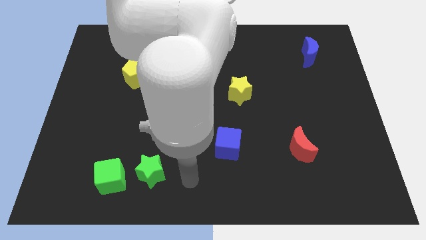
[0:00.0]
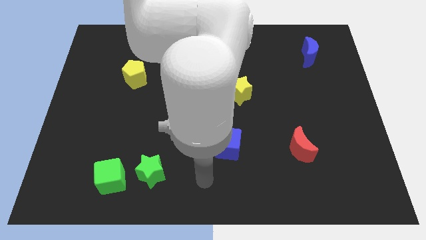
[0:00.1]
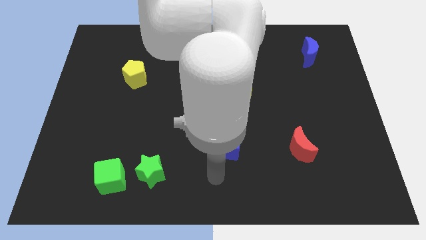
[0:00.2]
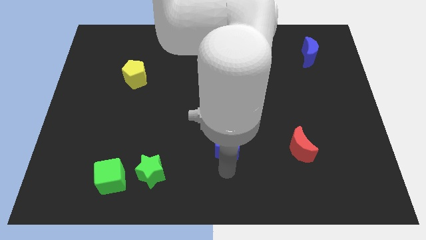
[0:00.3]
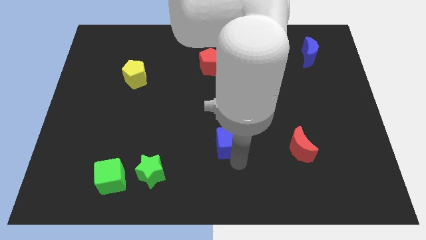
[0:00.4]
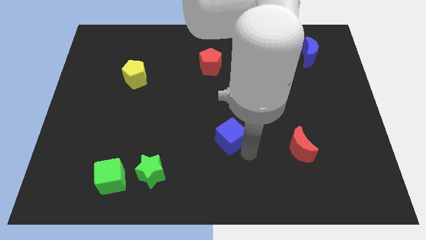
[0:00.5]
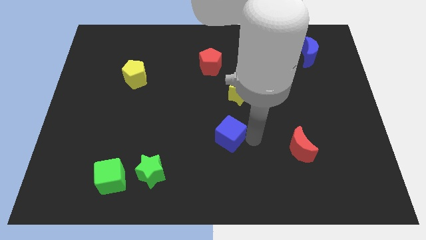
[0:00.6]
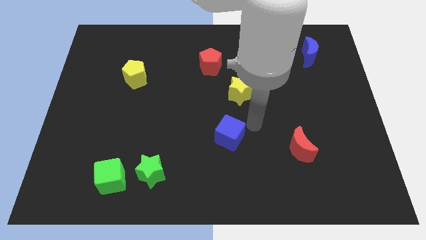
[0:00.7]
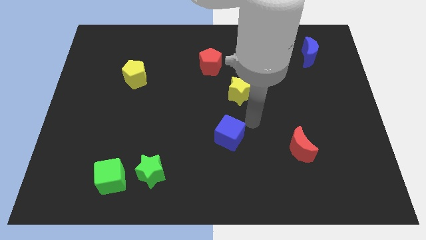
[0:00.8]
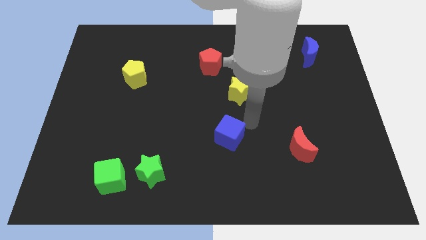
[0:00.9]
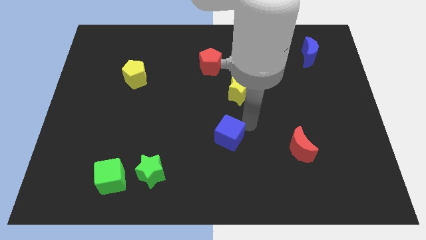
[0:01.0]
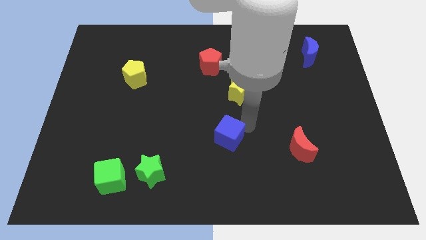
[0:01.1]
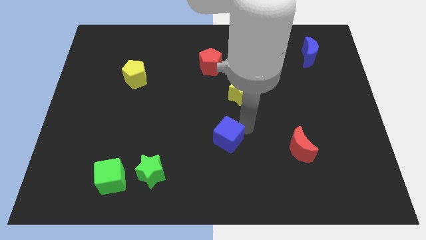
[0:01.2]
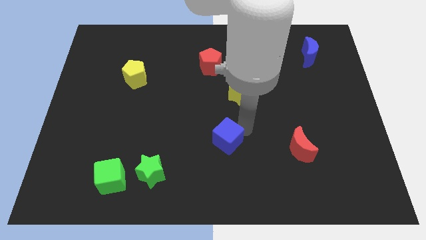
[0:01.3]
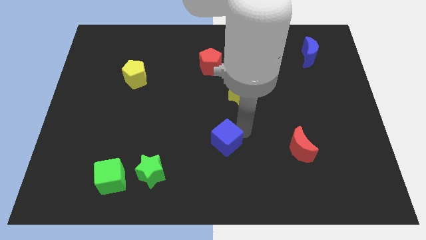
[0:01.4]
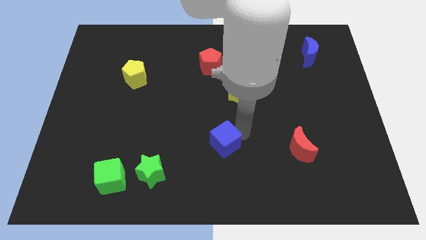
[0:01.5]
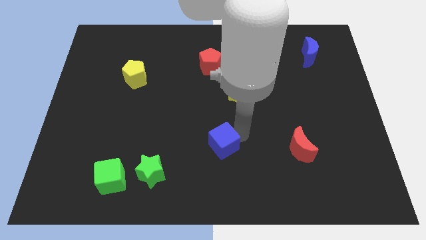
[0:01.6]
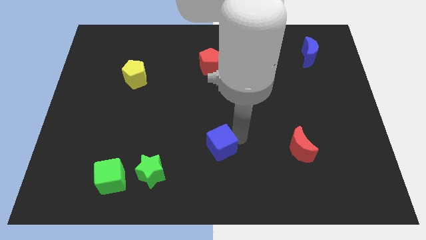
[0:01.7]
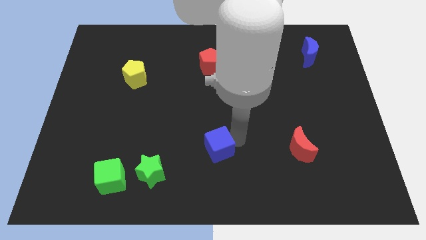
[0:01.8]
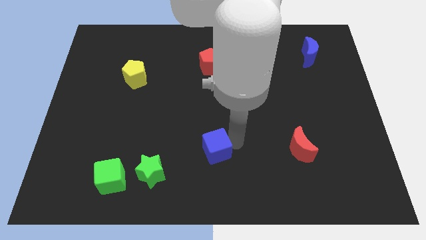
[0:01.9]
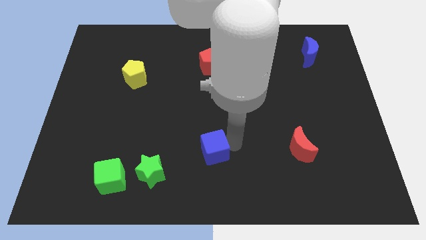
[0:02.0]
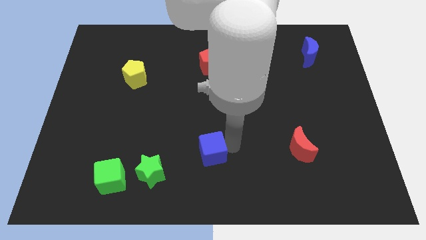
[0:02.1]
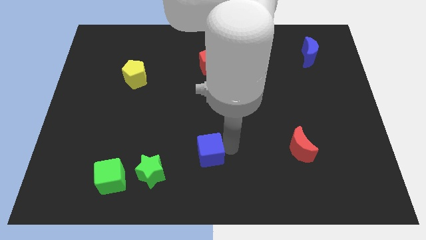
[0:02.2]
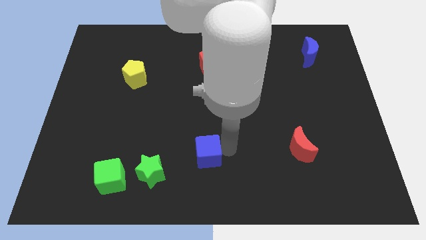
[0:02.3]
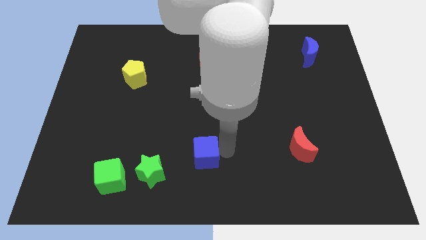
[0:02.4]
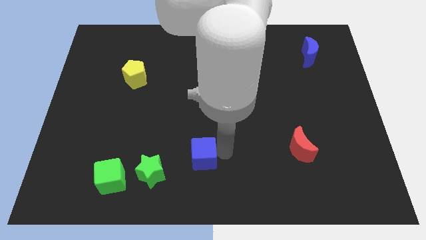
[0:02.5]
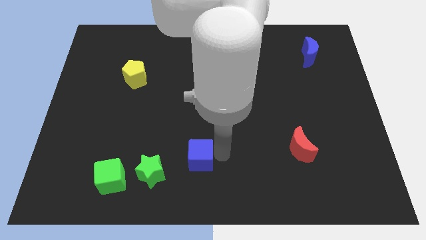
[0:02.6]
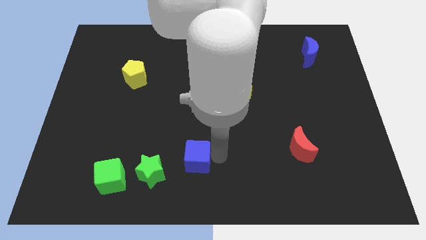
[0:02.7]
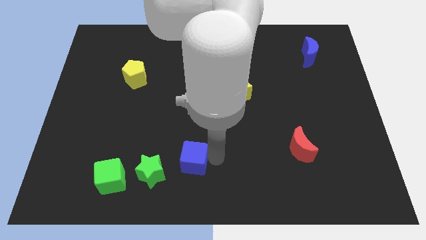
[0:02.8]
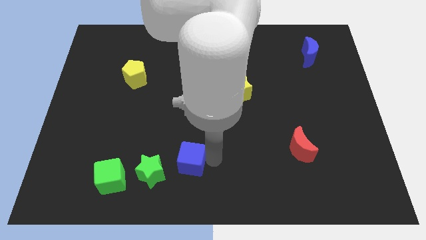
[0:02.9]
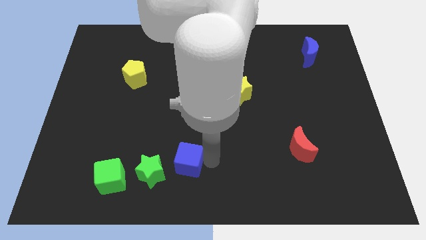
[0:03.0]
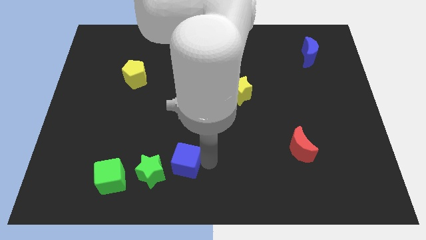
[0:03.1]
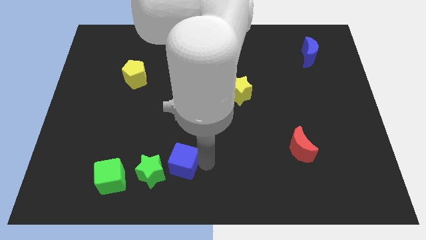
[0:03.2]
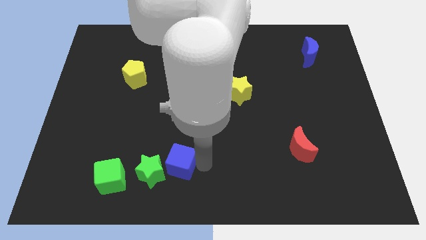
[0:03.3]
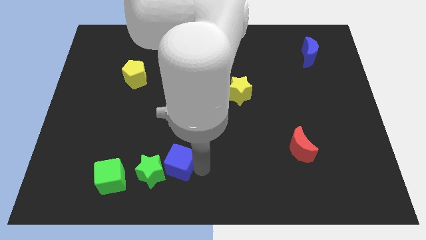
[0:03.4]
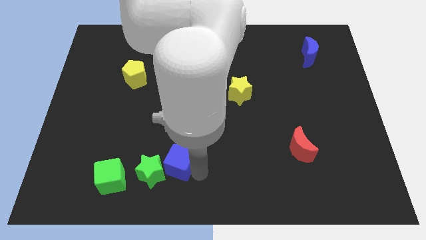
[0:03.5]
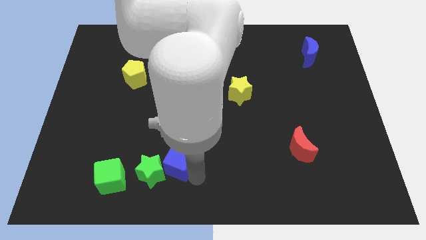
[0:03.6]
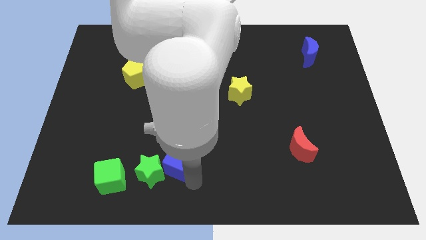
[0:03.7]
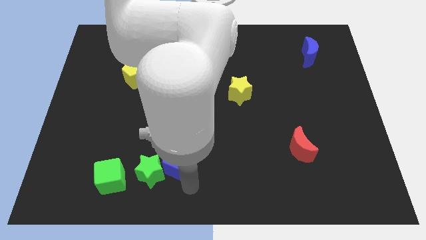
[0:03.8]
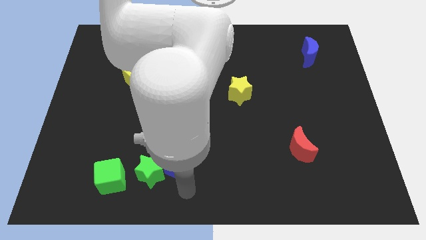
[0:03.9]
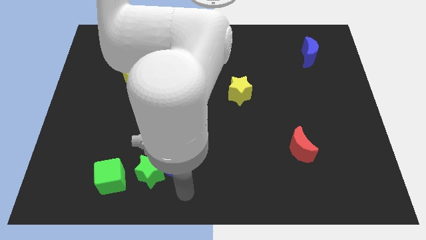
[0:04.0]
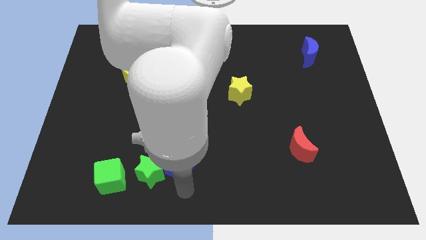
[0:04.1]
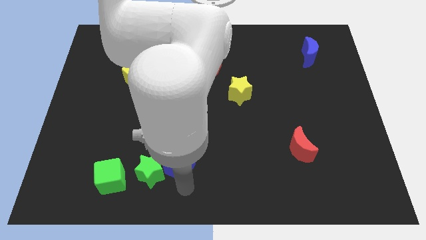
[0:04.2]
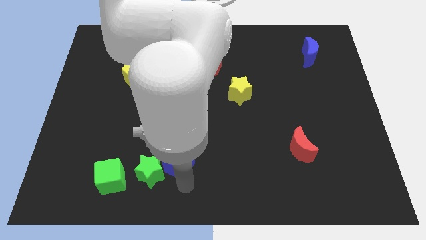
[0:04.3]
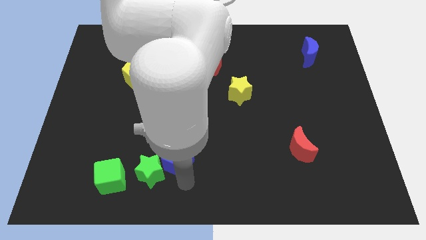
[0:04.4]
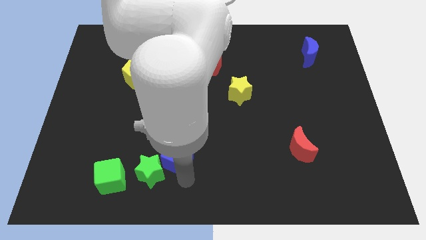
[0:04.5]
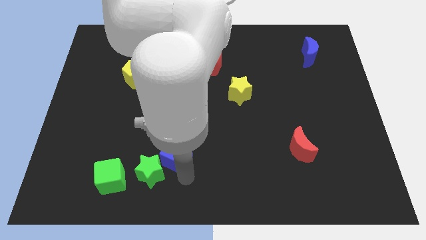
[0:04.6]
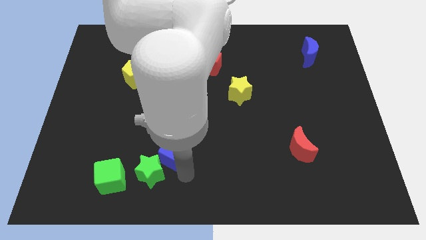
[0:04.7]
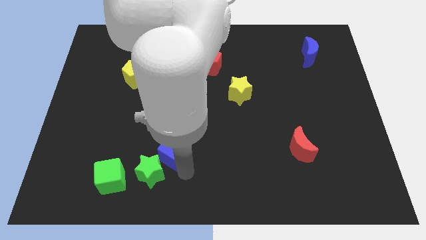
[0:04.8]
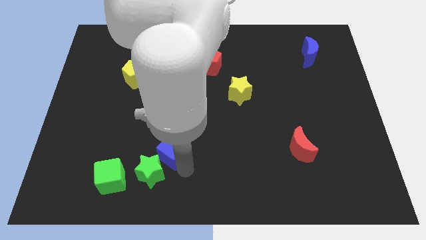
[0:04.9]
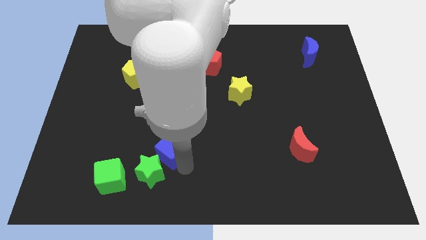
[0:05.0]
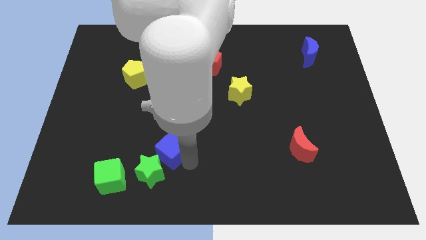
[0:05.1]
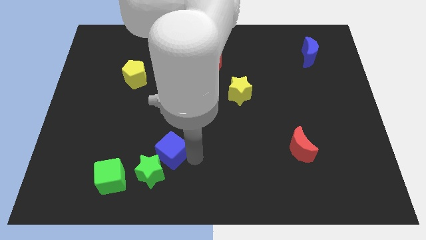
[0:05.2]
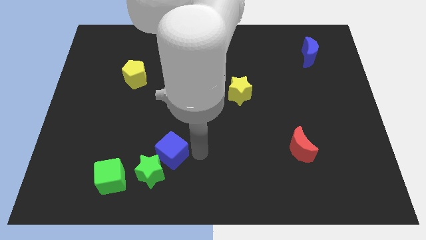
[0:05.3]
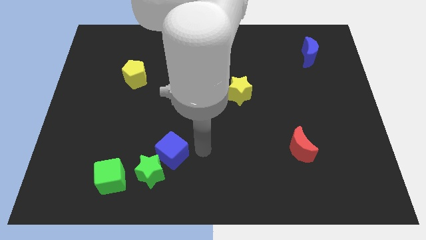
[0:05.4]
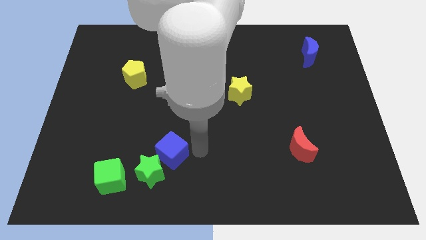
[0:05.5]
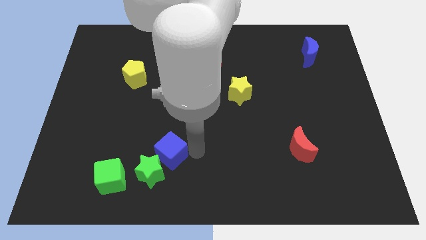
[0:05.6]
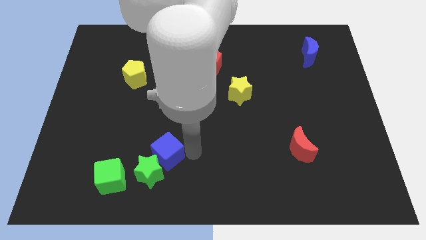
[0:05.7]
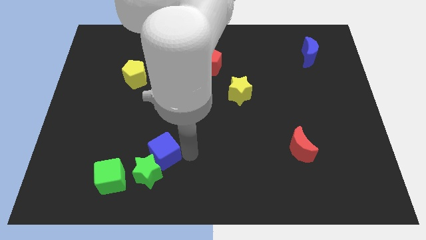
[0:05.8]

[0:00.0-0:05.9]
slide the blue cube to the top right side of the green cube

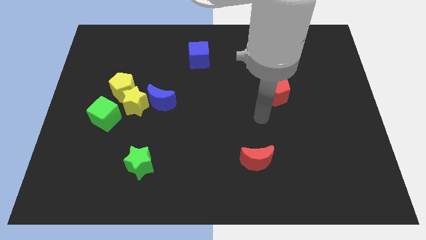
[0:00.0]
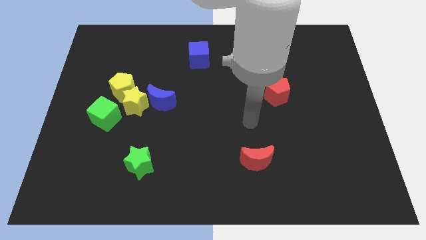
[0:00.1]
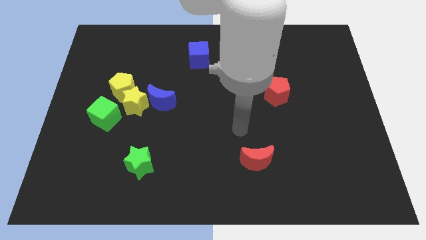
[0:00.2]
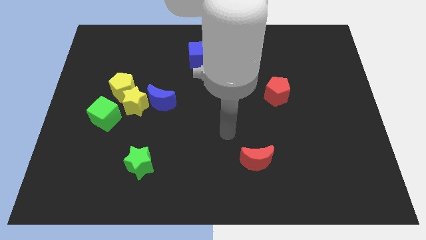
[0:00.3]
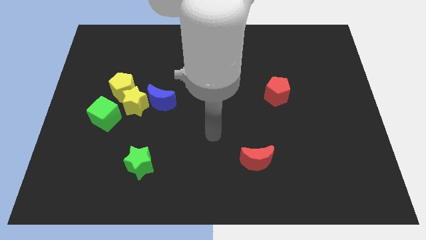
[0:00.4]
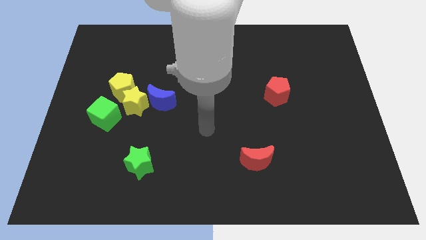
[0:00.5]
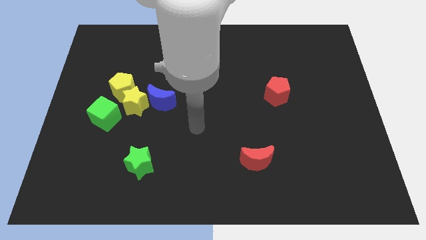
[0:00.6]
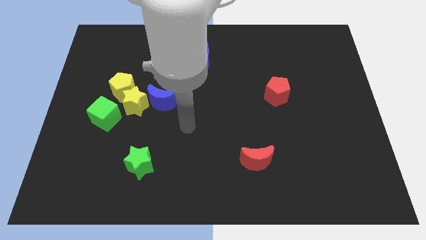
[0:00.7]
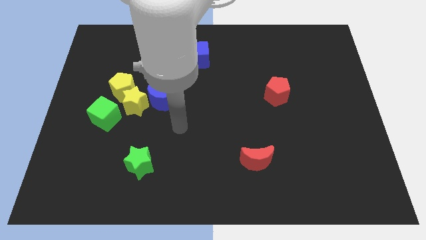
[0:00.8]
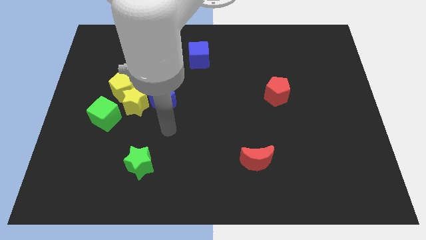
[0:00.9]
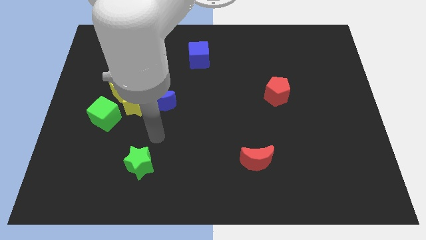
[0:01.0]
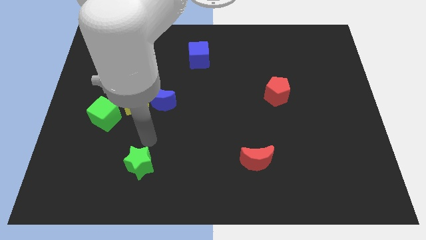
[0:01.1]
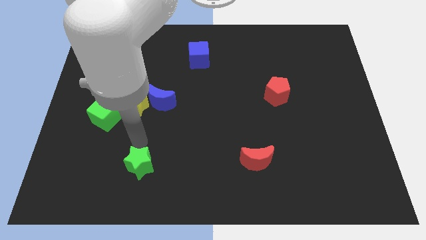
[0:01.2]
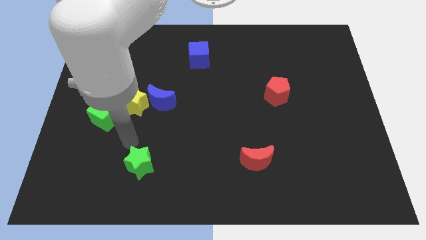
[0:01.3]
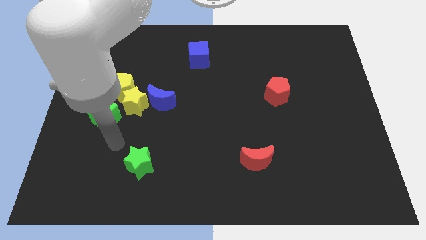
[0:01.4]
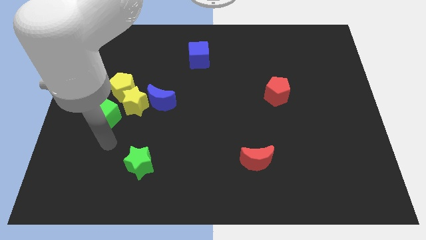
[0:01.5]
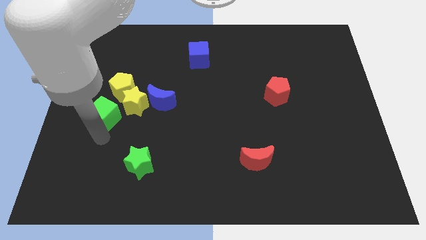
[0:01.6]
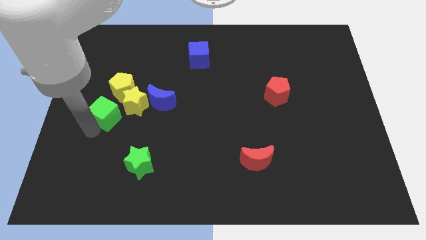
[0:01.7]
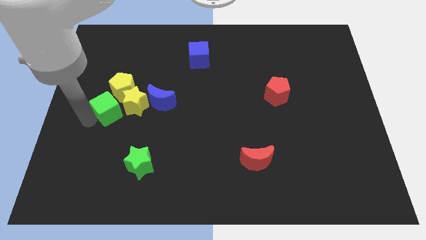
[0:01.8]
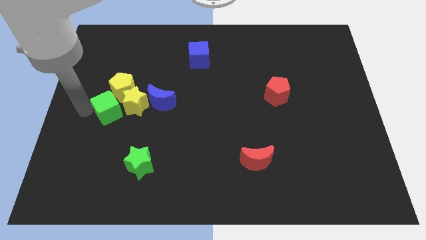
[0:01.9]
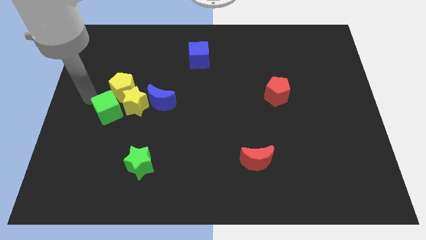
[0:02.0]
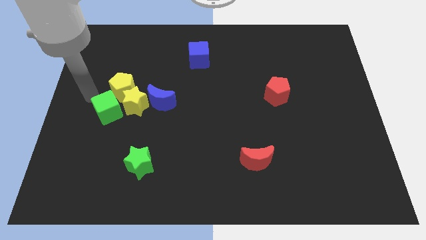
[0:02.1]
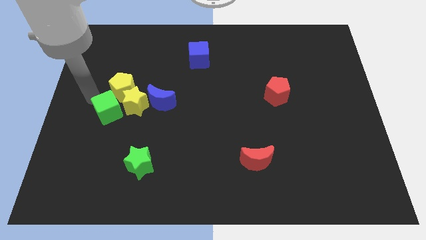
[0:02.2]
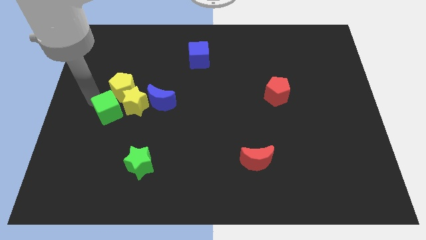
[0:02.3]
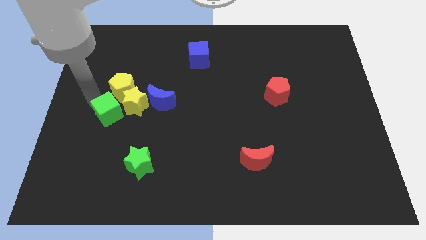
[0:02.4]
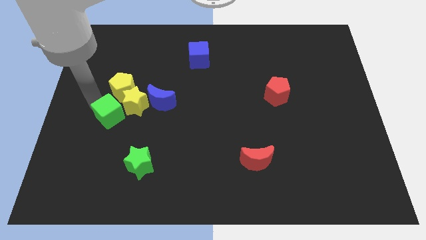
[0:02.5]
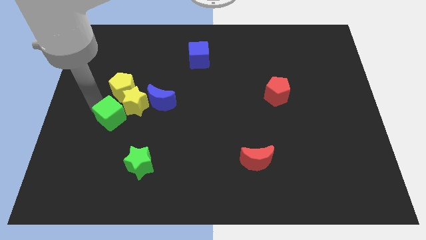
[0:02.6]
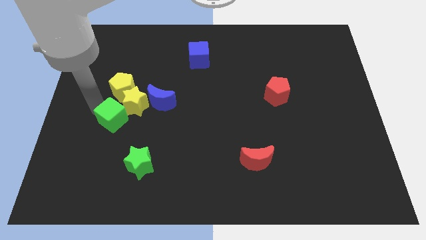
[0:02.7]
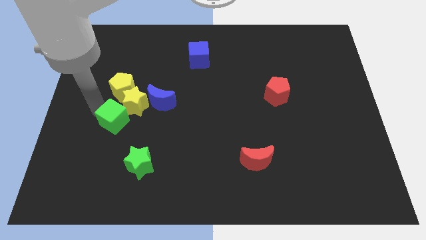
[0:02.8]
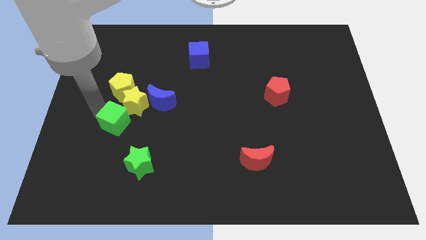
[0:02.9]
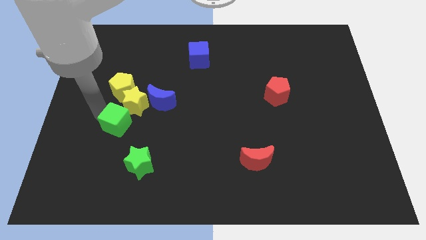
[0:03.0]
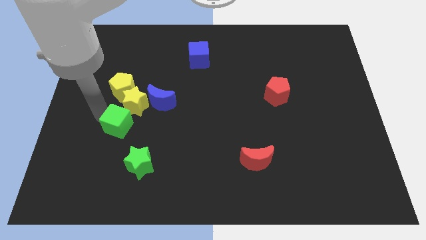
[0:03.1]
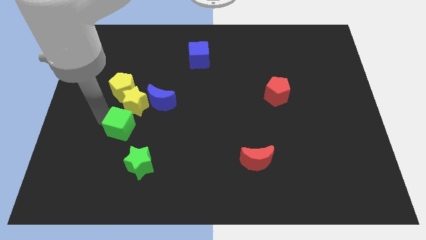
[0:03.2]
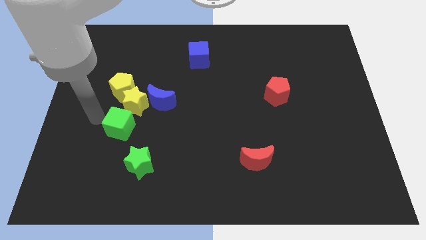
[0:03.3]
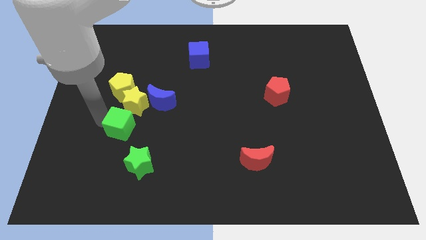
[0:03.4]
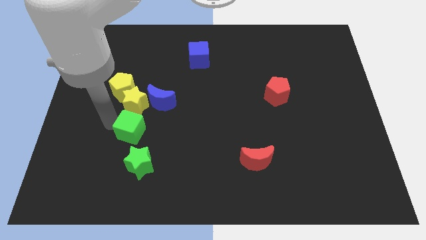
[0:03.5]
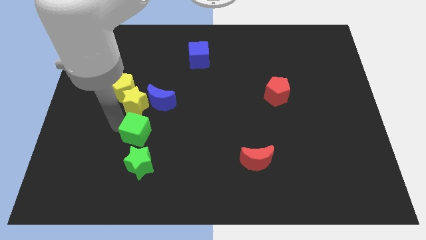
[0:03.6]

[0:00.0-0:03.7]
move the green cube to the bottom side of the blue moon
